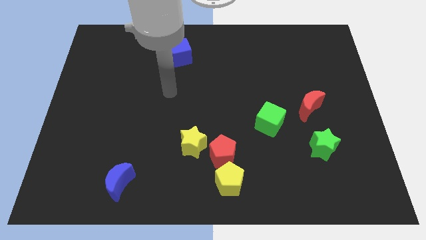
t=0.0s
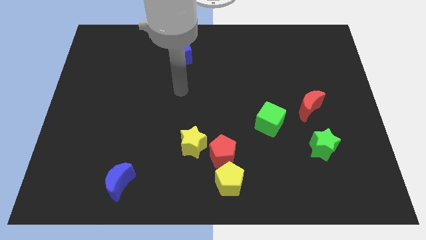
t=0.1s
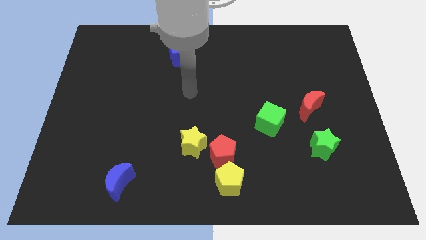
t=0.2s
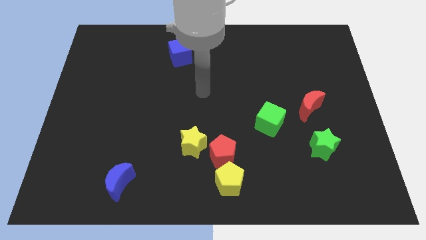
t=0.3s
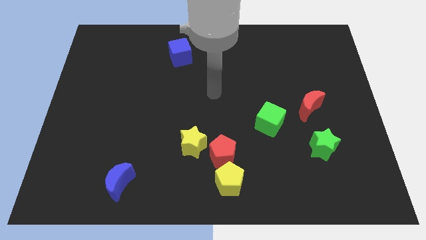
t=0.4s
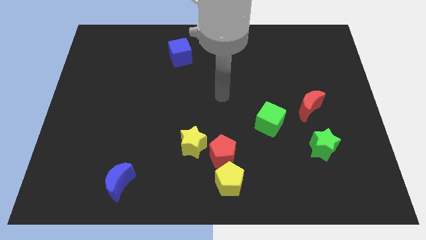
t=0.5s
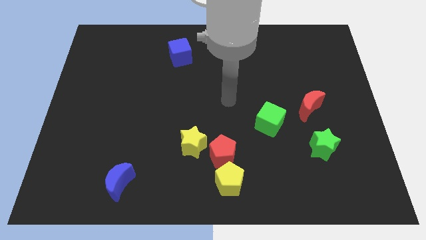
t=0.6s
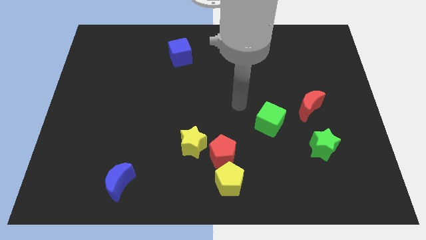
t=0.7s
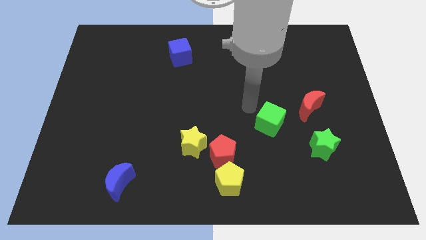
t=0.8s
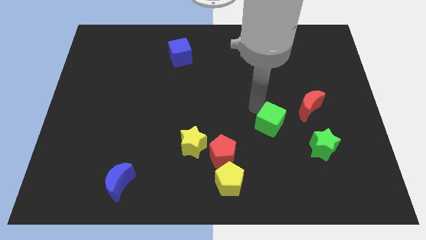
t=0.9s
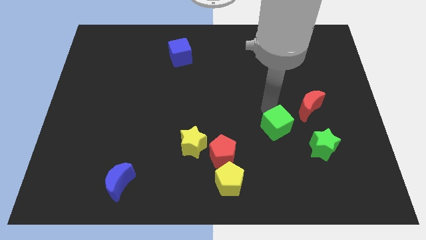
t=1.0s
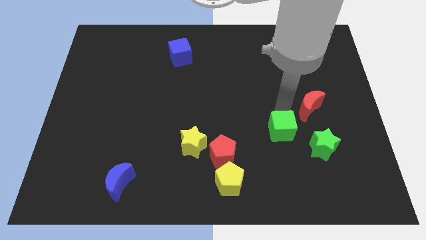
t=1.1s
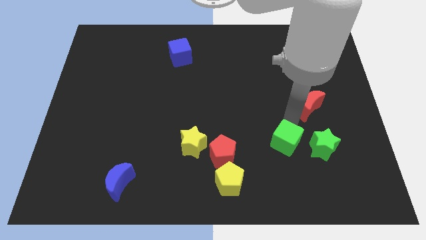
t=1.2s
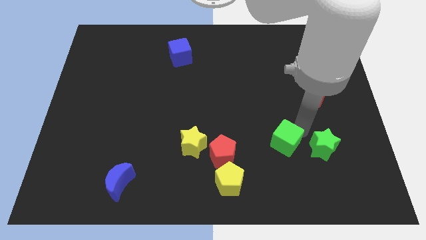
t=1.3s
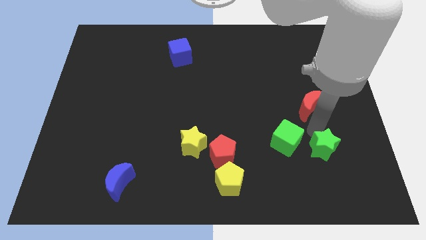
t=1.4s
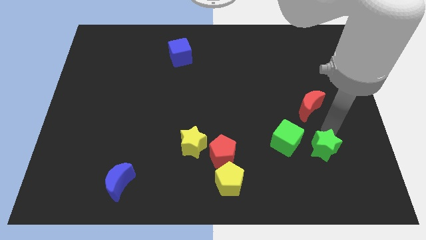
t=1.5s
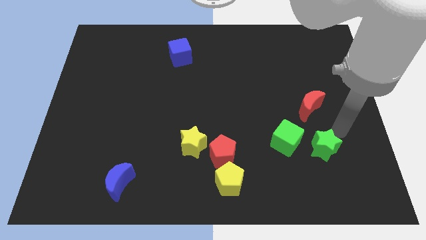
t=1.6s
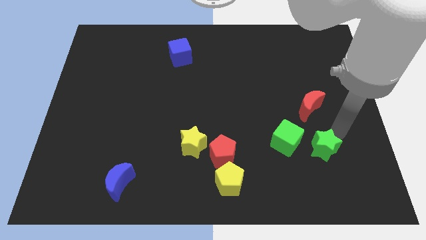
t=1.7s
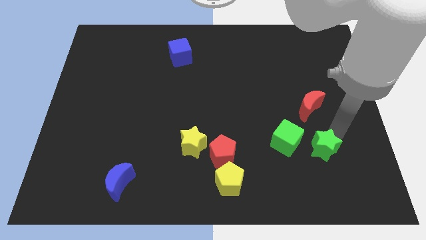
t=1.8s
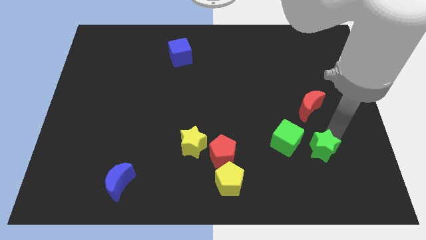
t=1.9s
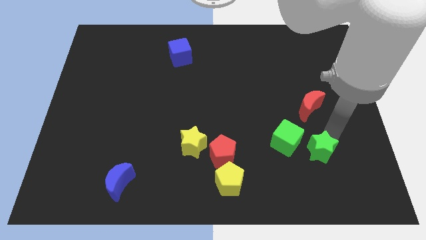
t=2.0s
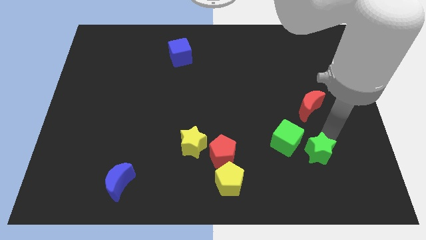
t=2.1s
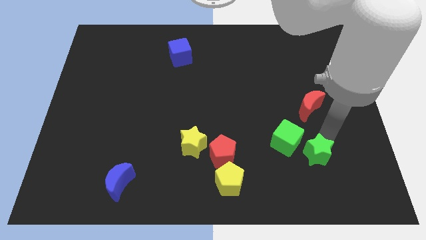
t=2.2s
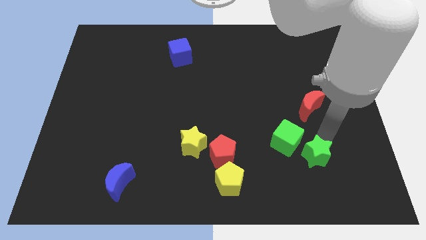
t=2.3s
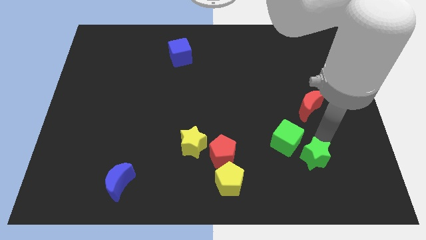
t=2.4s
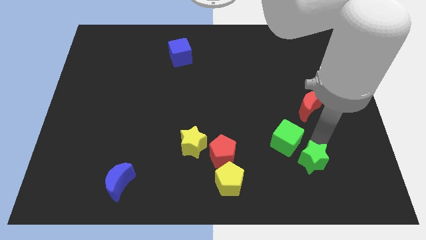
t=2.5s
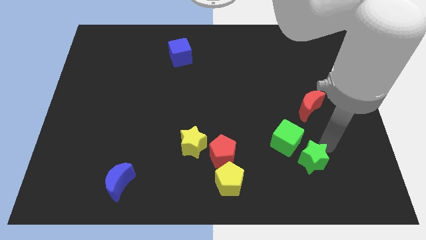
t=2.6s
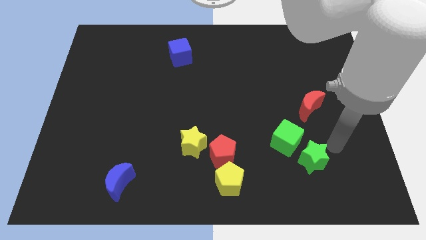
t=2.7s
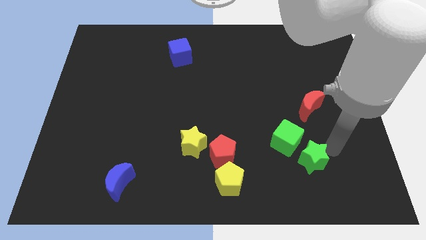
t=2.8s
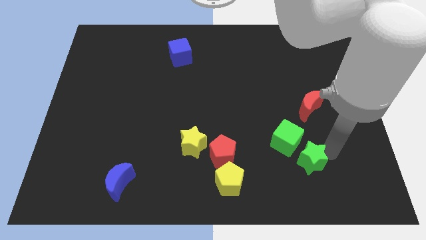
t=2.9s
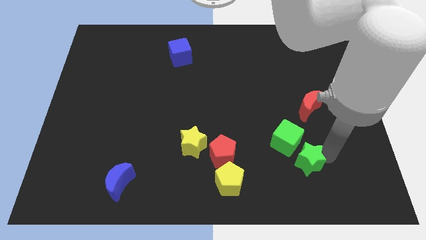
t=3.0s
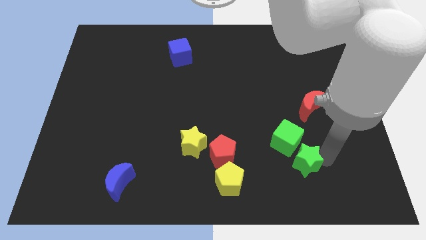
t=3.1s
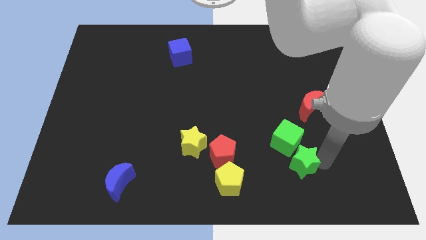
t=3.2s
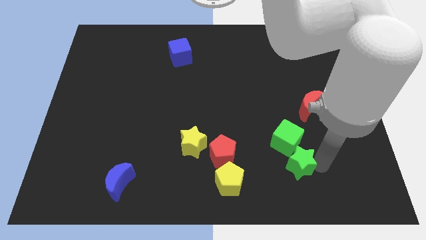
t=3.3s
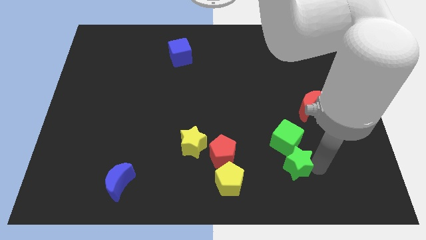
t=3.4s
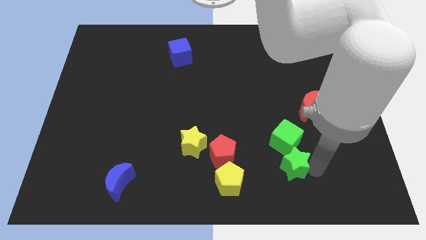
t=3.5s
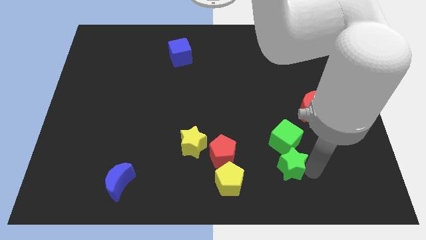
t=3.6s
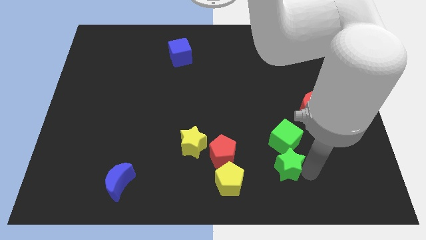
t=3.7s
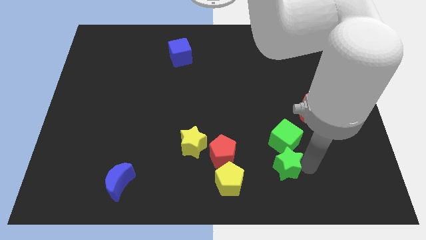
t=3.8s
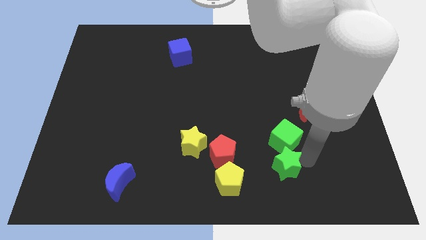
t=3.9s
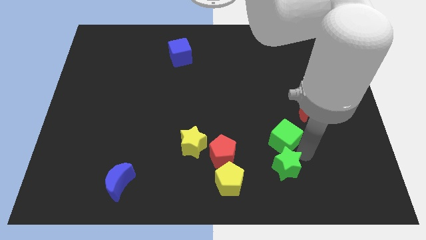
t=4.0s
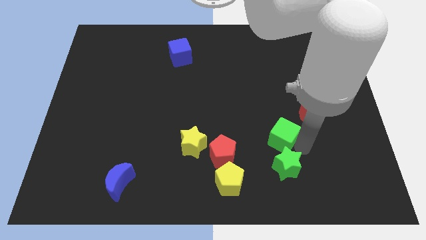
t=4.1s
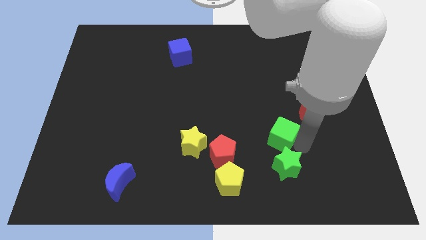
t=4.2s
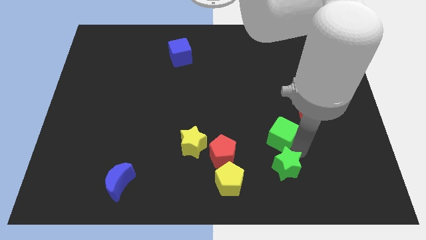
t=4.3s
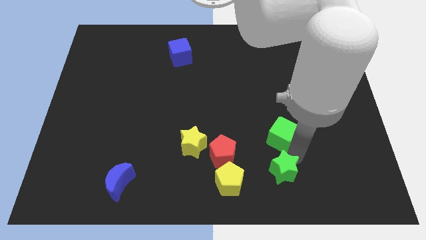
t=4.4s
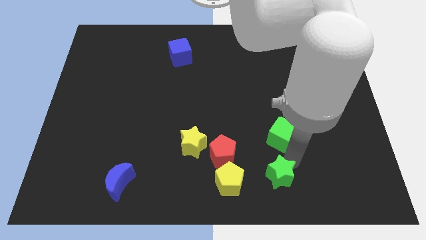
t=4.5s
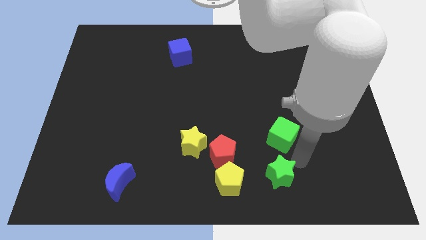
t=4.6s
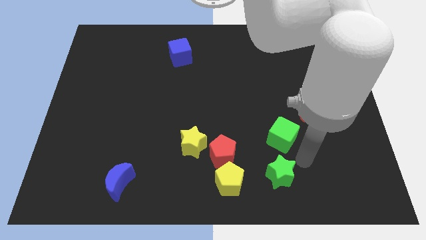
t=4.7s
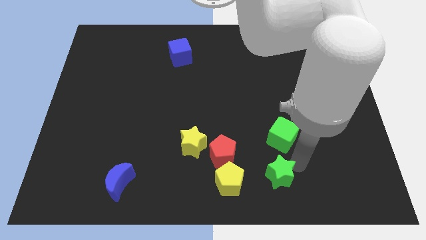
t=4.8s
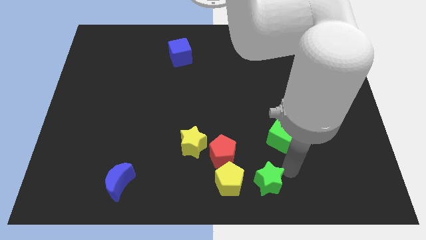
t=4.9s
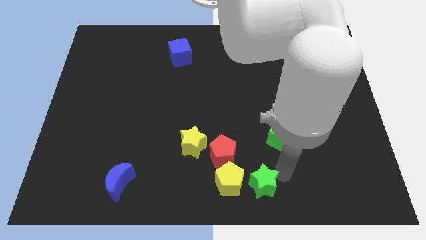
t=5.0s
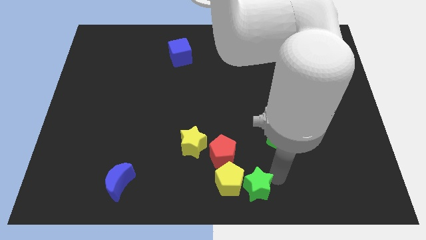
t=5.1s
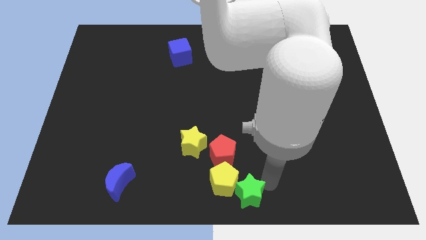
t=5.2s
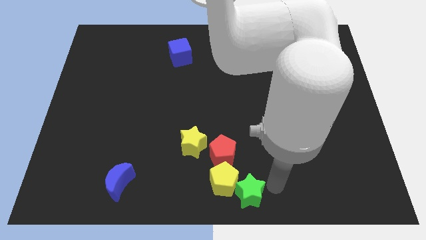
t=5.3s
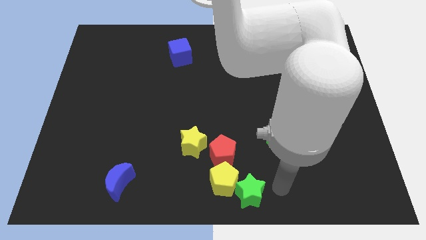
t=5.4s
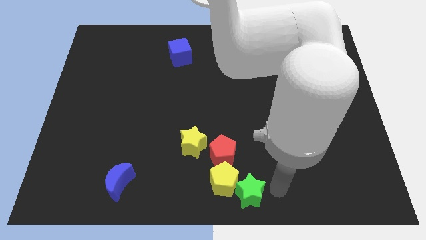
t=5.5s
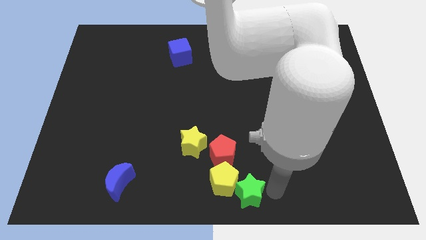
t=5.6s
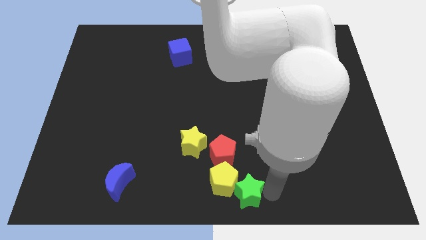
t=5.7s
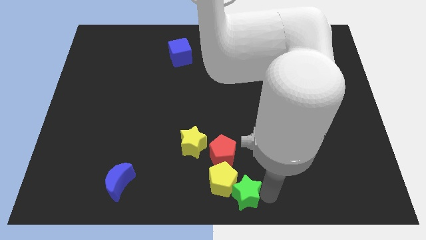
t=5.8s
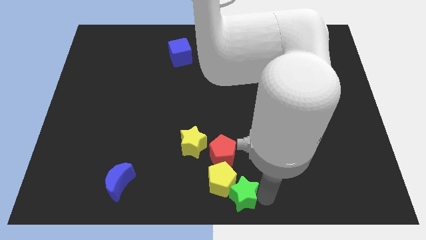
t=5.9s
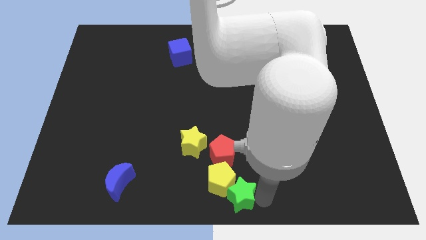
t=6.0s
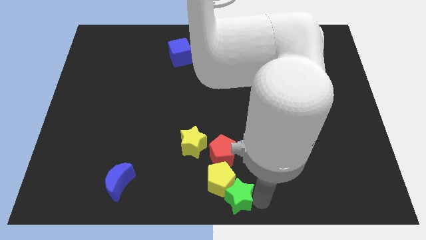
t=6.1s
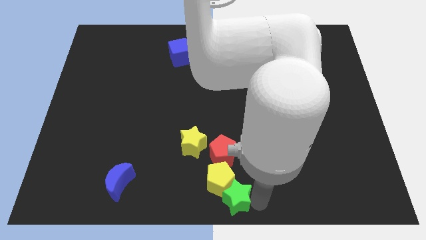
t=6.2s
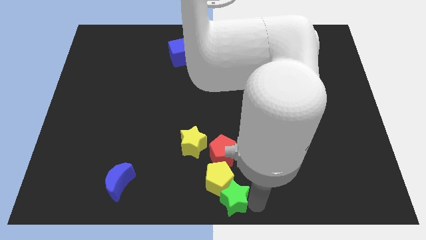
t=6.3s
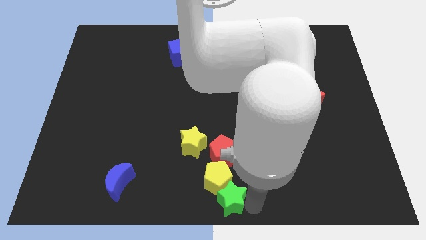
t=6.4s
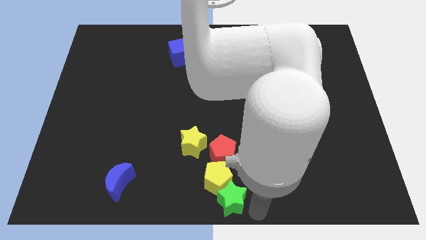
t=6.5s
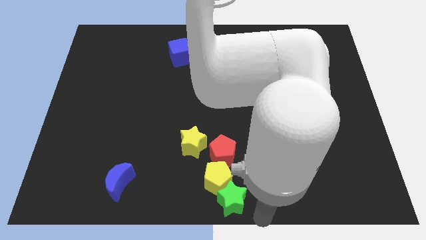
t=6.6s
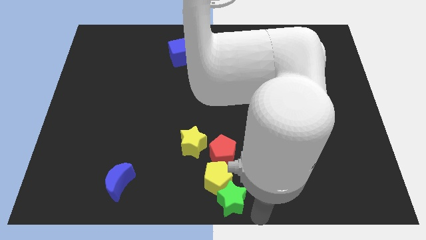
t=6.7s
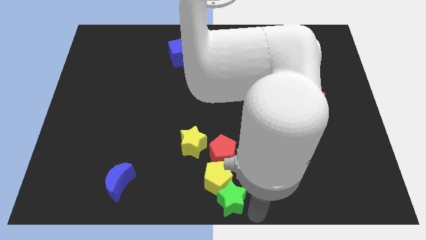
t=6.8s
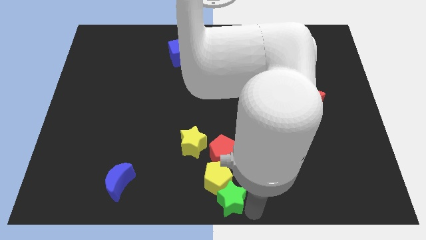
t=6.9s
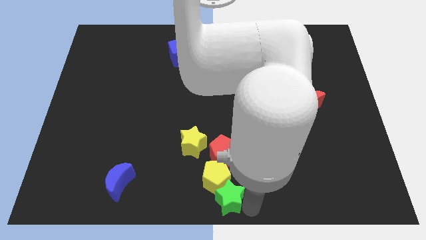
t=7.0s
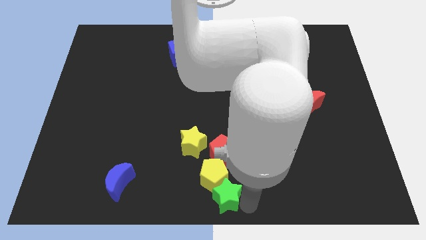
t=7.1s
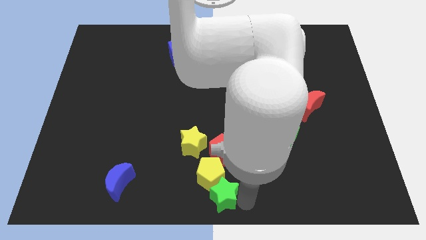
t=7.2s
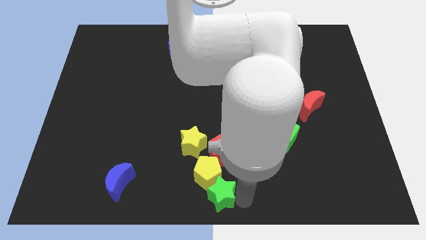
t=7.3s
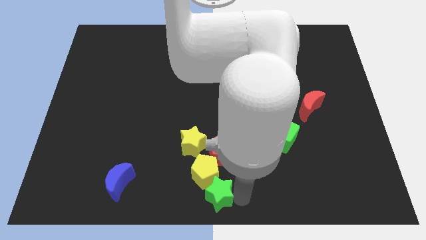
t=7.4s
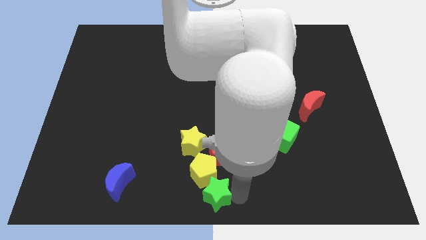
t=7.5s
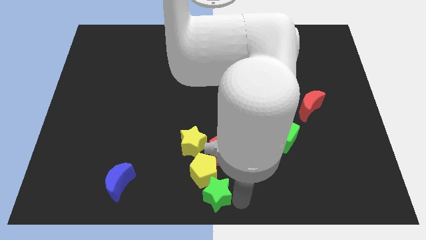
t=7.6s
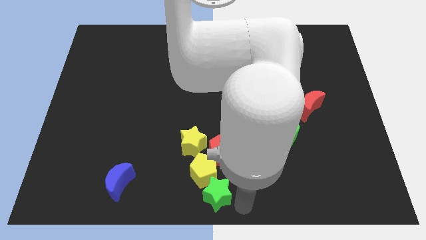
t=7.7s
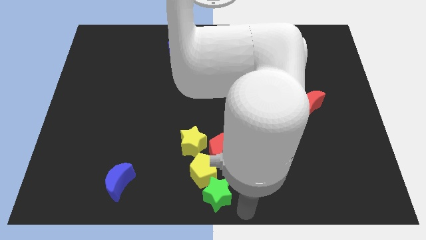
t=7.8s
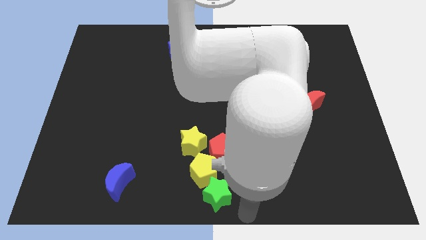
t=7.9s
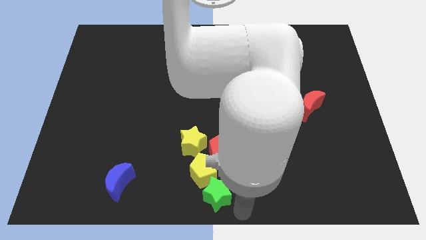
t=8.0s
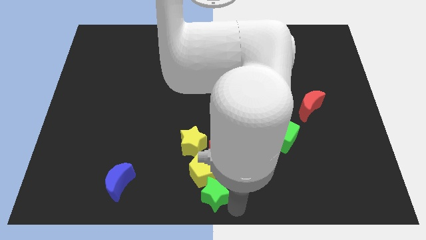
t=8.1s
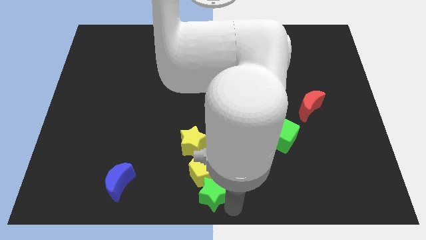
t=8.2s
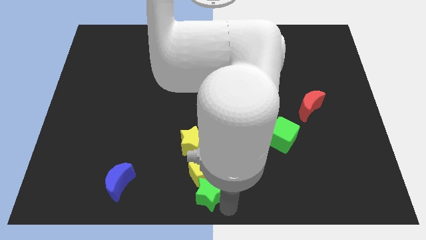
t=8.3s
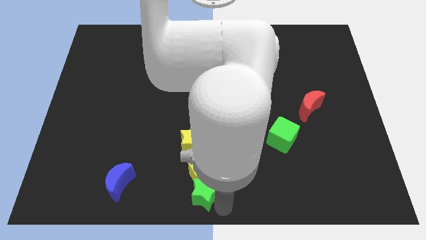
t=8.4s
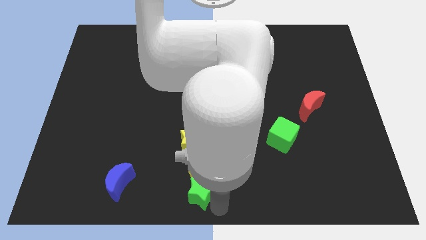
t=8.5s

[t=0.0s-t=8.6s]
push the green star left
